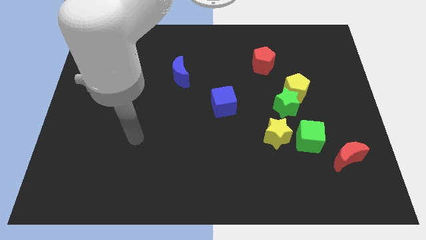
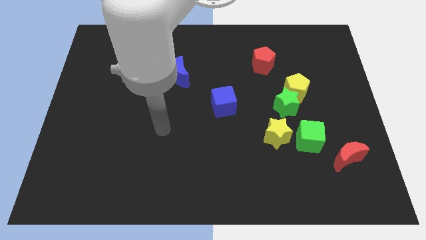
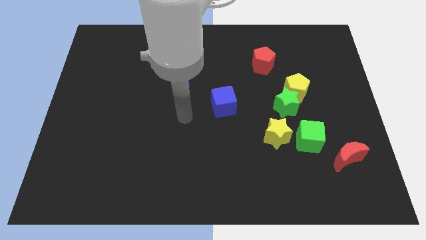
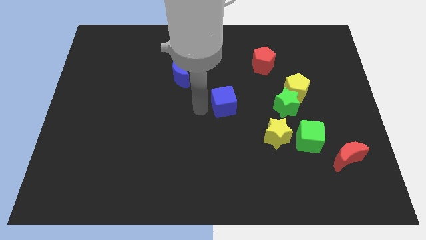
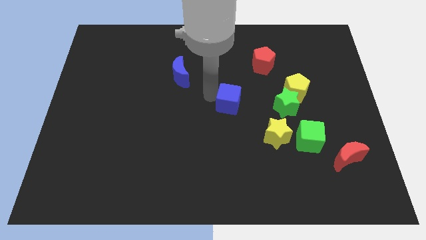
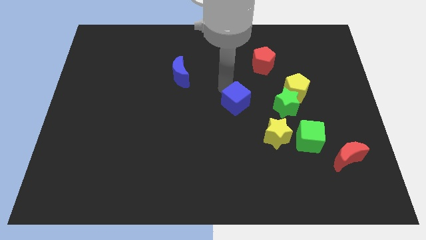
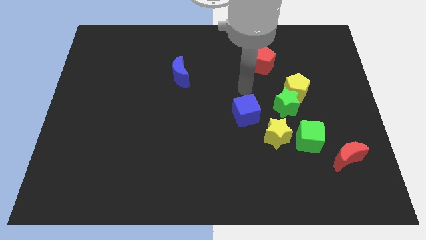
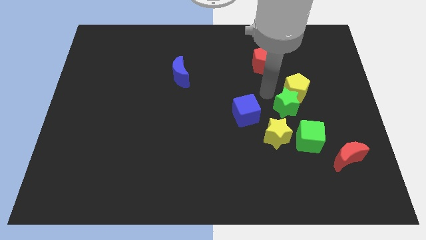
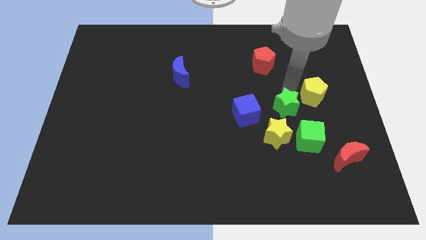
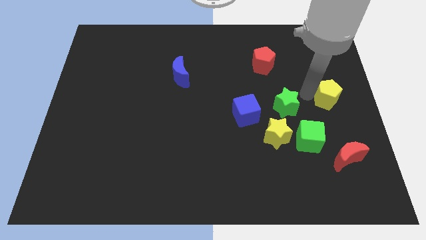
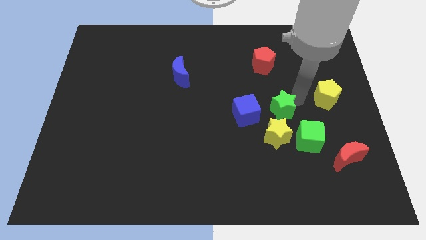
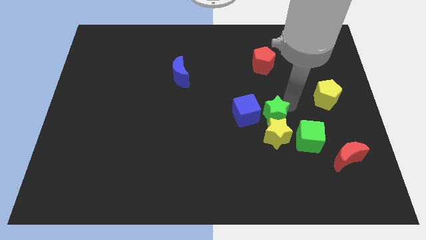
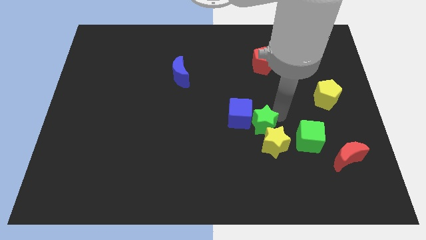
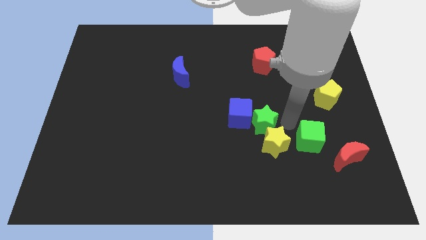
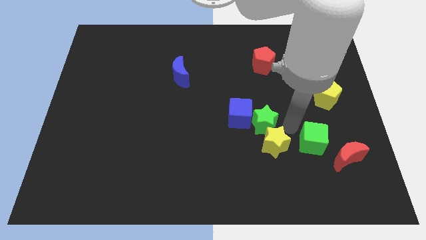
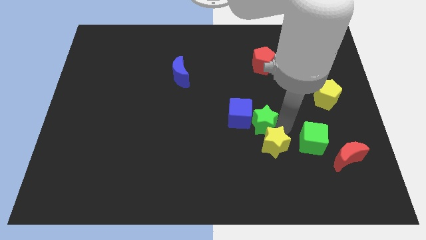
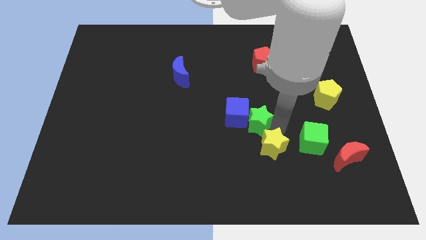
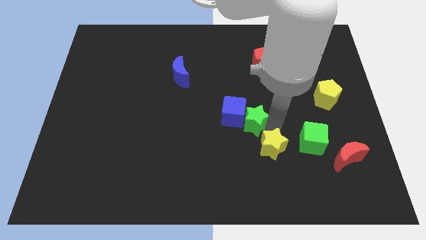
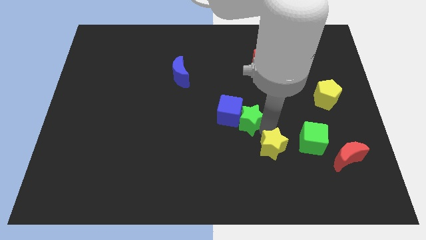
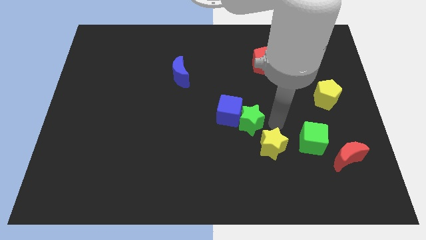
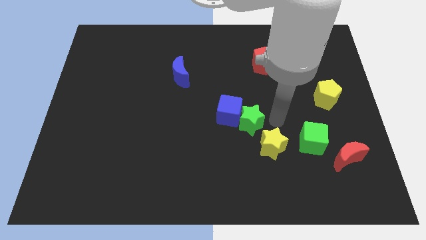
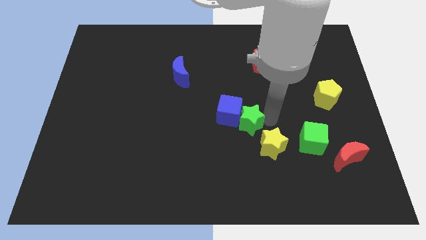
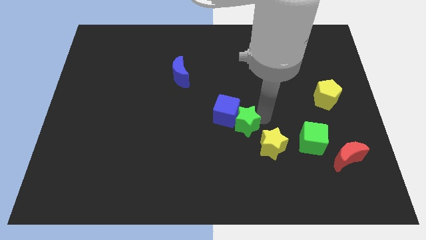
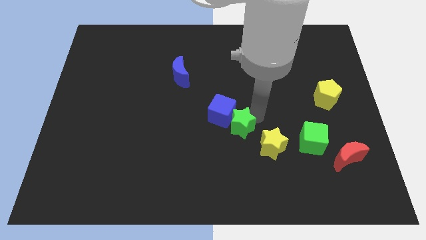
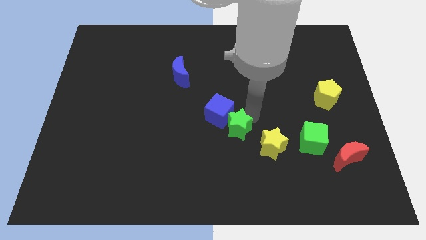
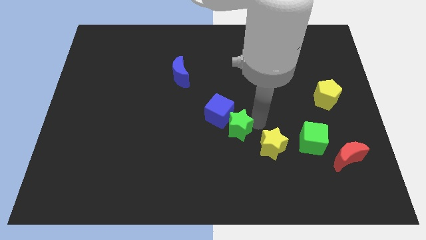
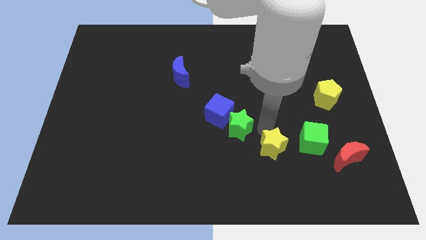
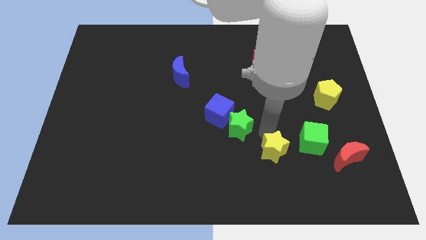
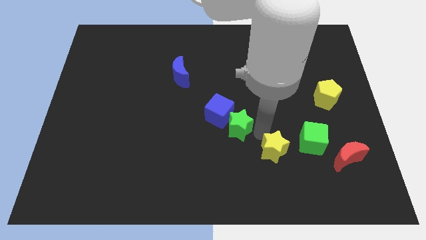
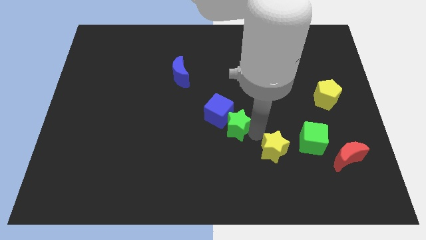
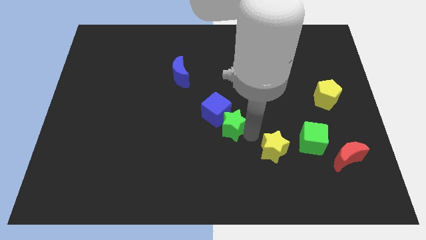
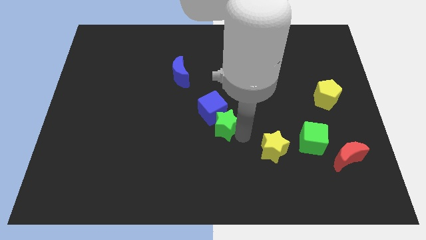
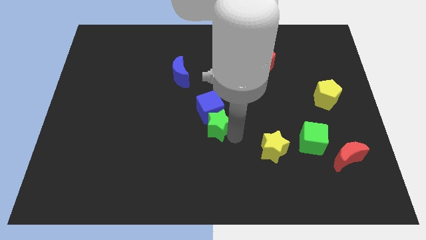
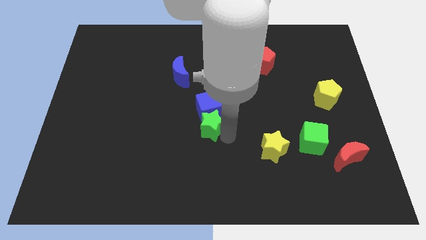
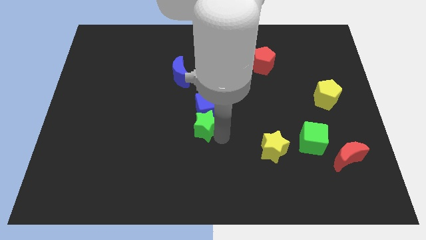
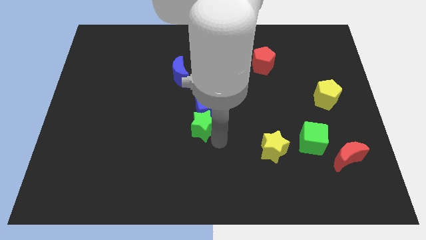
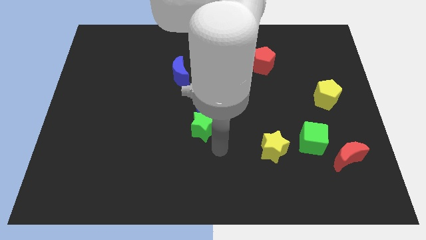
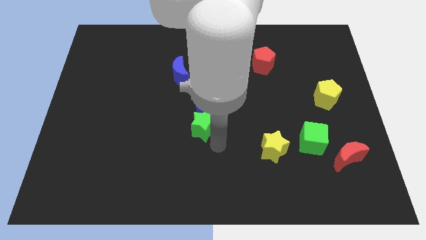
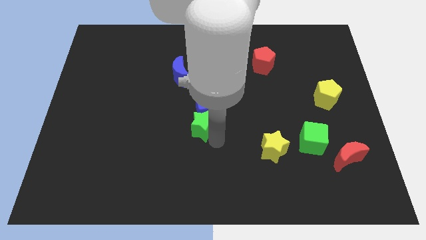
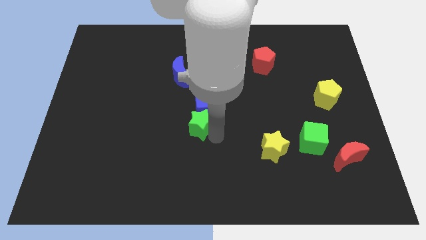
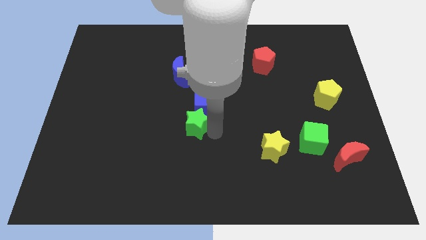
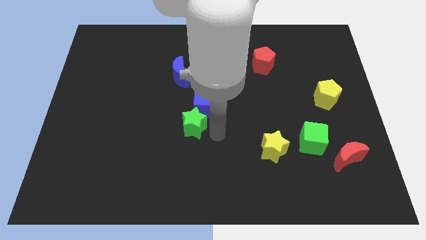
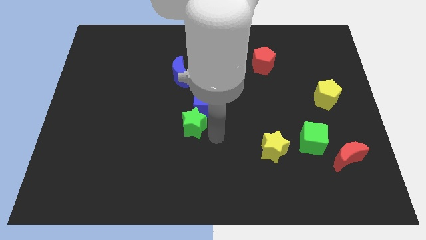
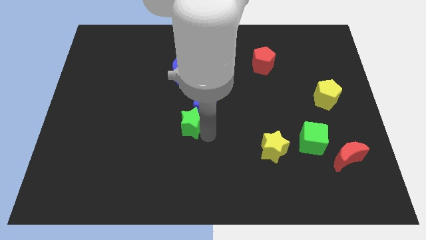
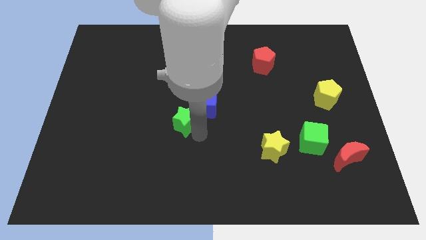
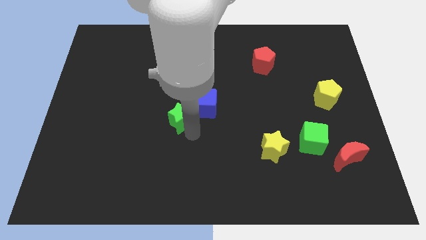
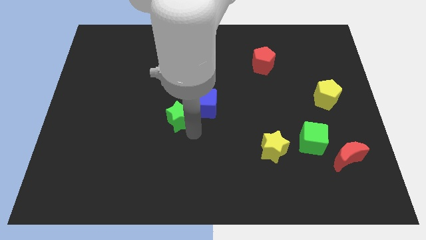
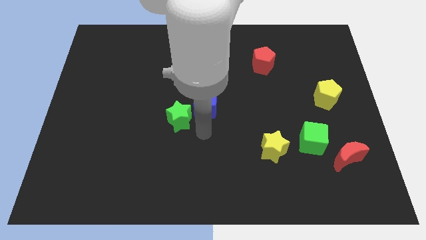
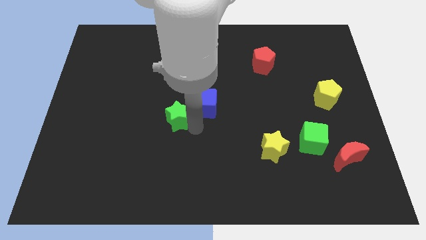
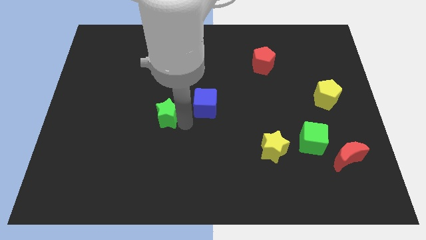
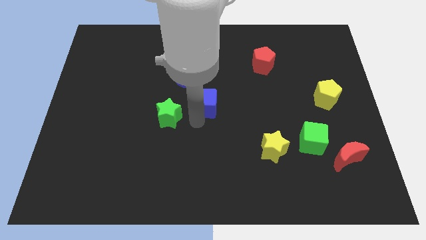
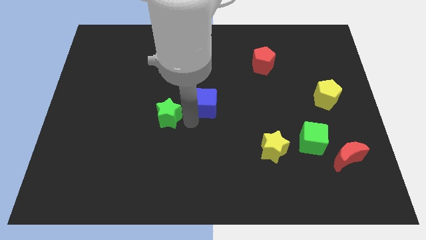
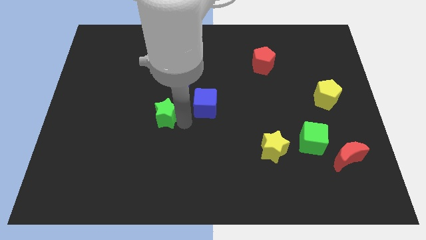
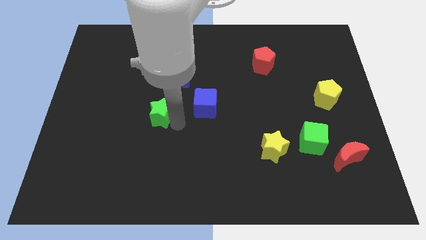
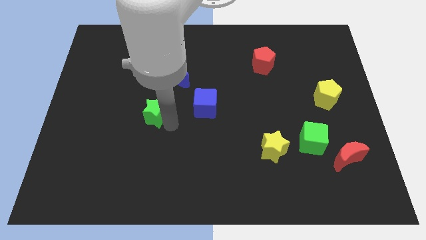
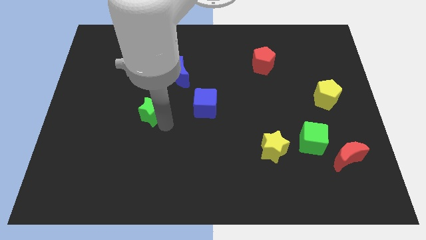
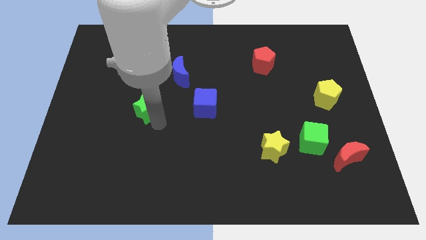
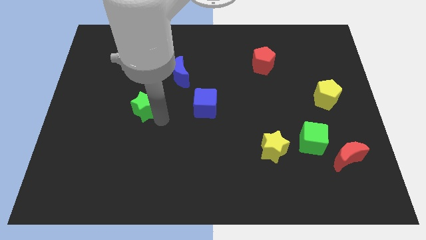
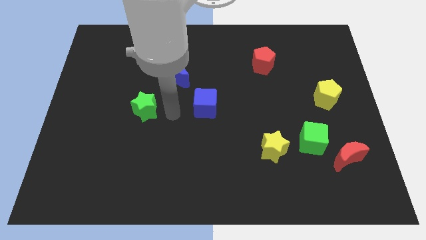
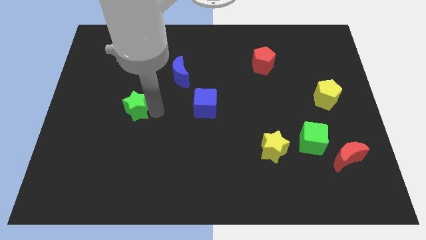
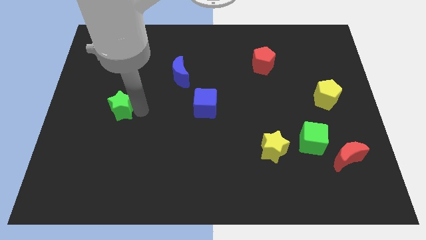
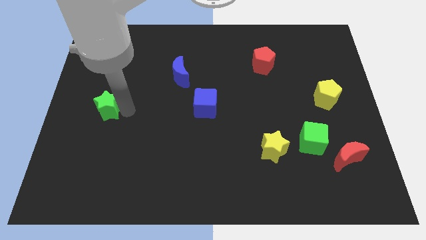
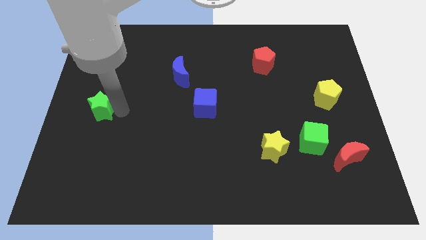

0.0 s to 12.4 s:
push the green star to the left side
